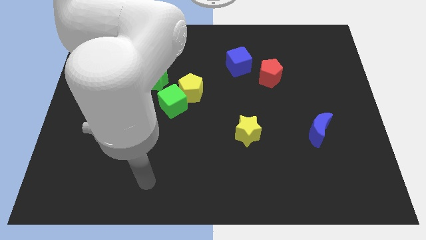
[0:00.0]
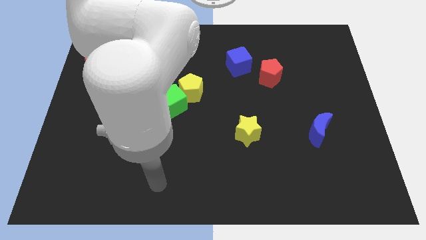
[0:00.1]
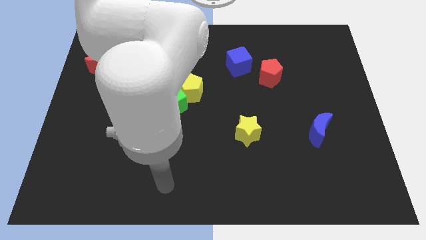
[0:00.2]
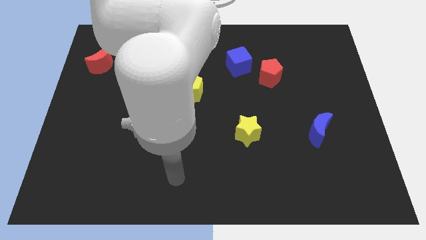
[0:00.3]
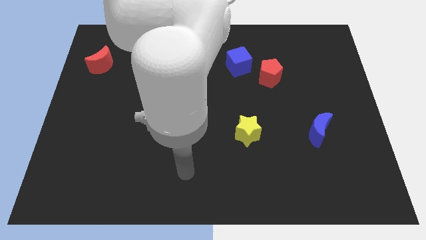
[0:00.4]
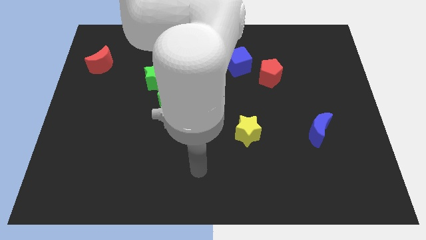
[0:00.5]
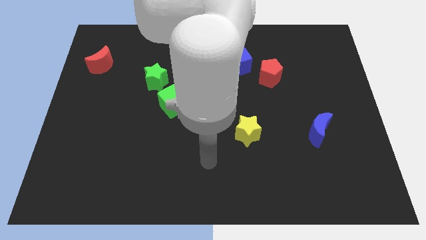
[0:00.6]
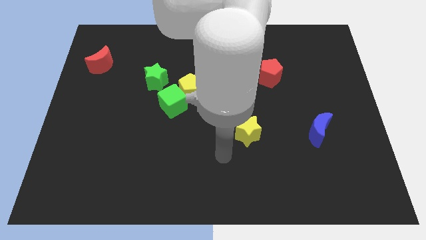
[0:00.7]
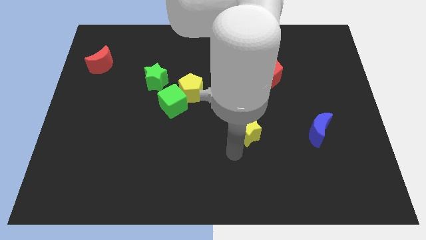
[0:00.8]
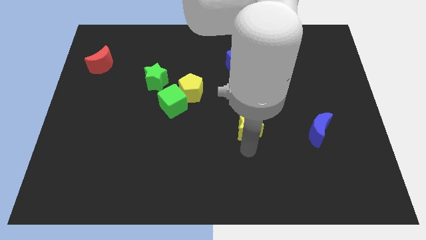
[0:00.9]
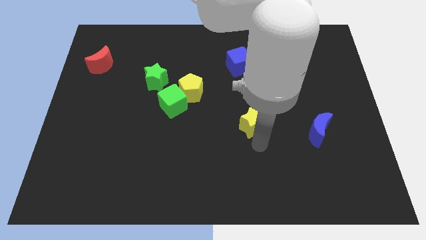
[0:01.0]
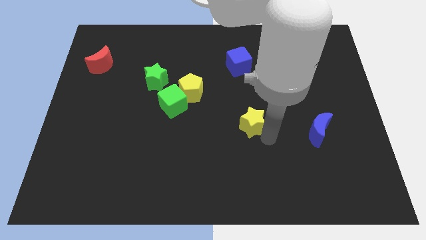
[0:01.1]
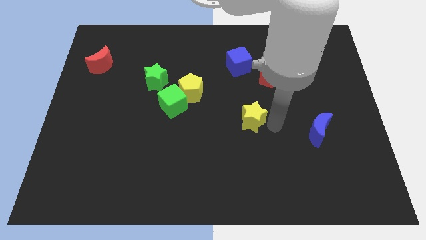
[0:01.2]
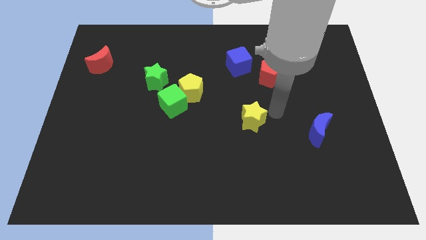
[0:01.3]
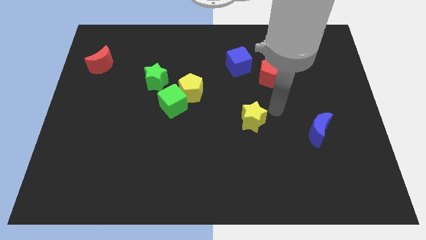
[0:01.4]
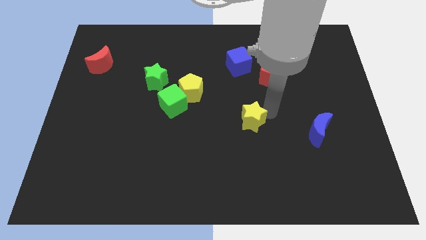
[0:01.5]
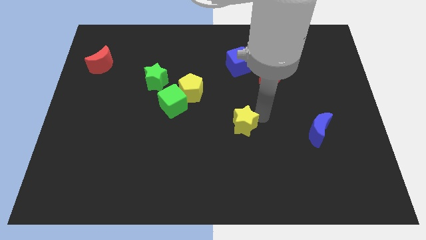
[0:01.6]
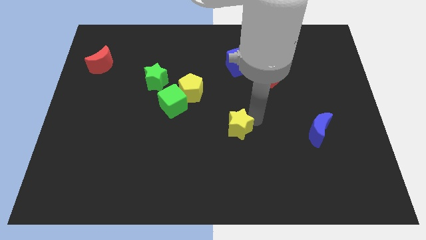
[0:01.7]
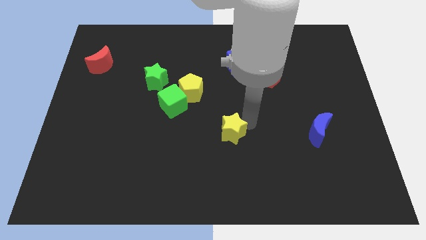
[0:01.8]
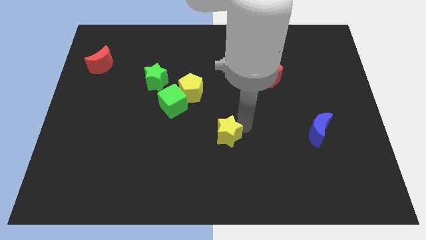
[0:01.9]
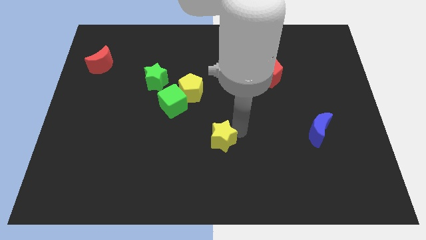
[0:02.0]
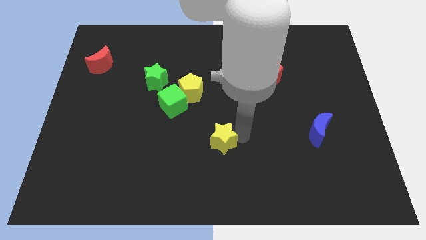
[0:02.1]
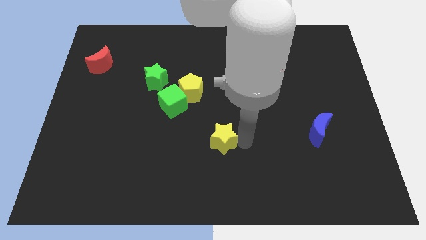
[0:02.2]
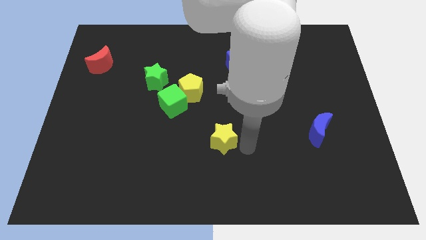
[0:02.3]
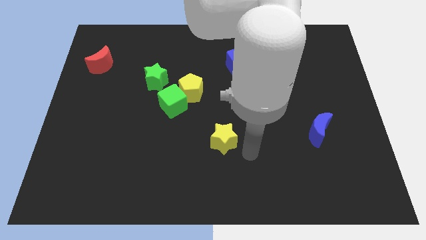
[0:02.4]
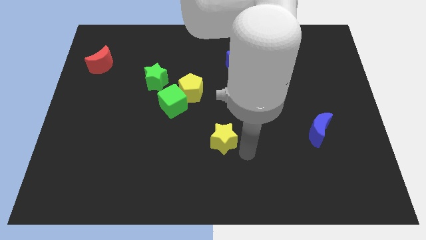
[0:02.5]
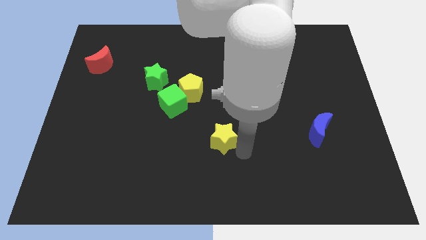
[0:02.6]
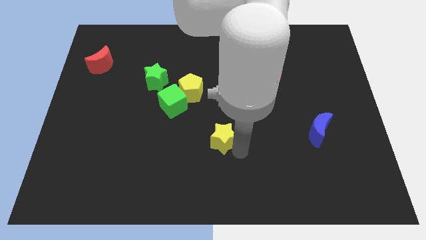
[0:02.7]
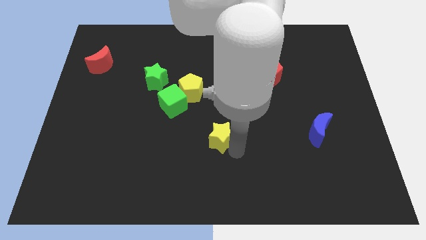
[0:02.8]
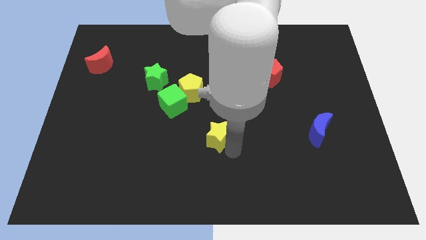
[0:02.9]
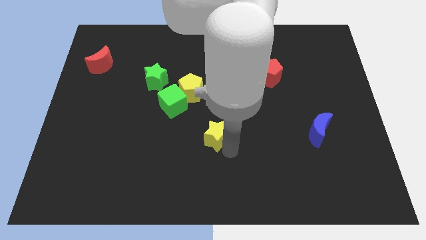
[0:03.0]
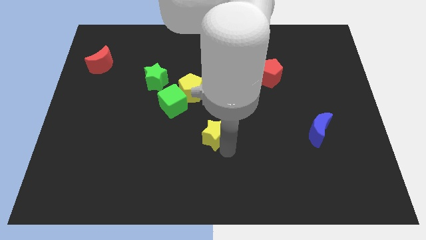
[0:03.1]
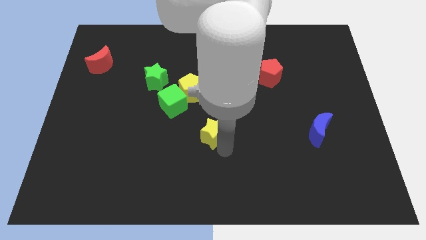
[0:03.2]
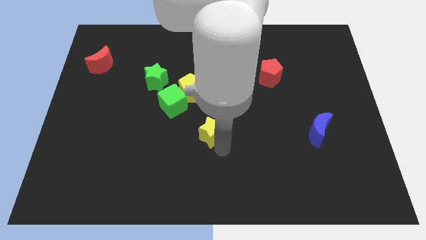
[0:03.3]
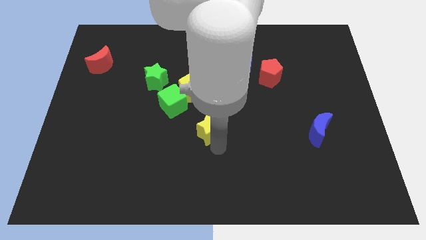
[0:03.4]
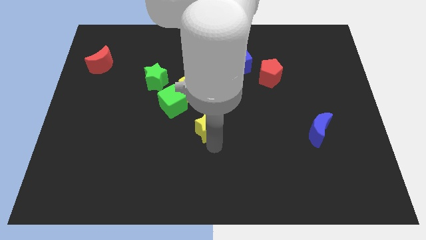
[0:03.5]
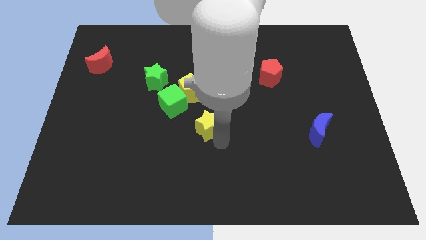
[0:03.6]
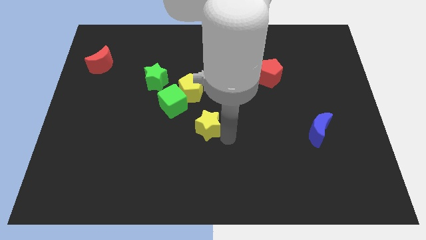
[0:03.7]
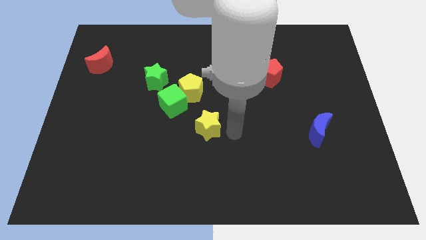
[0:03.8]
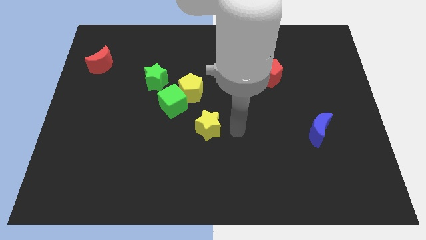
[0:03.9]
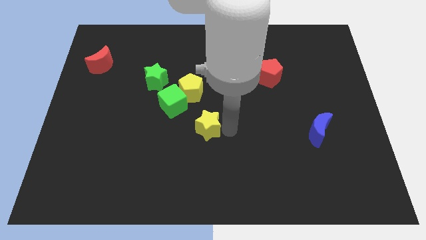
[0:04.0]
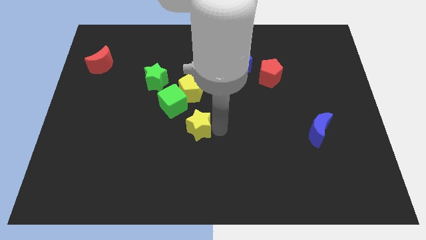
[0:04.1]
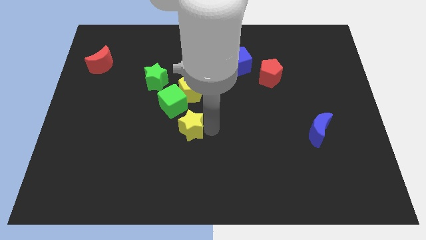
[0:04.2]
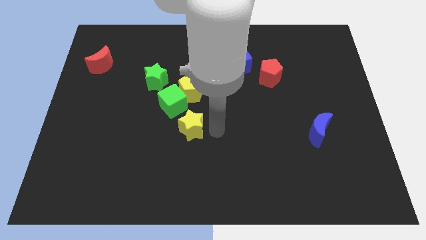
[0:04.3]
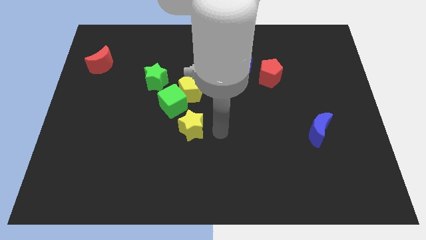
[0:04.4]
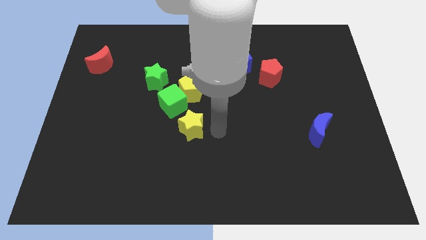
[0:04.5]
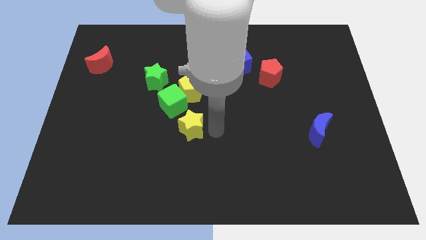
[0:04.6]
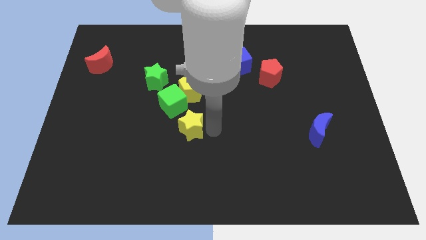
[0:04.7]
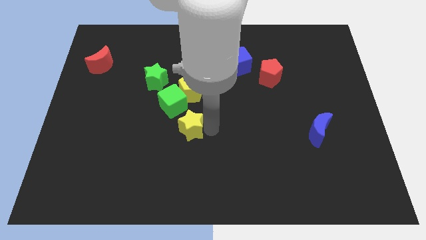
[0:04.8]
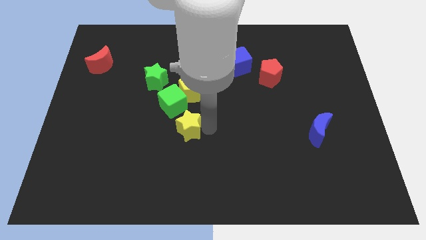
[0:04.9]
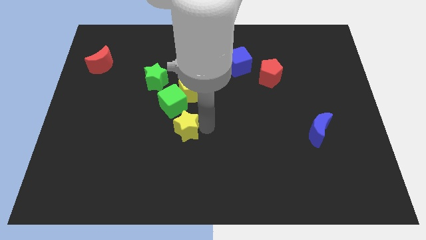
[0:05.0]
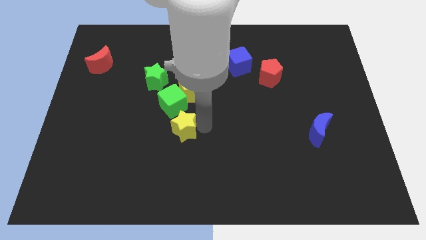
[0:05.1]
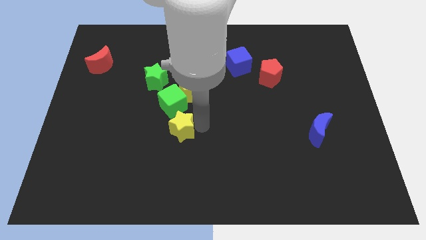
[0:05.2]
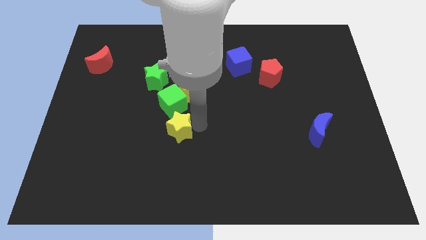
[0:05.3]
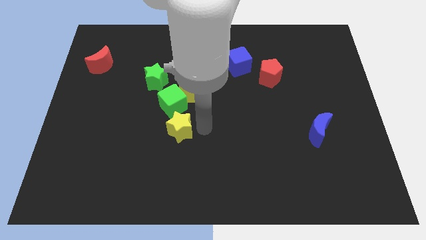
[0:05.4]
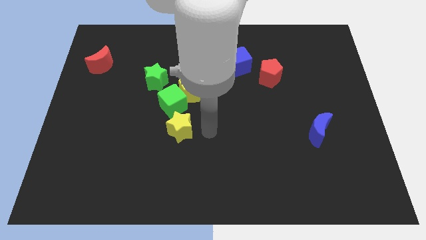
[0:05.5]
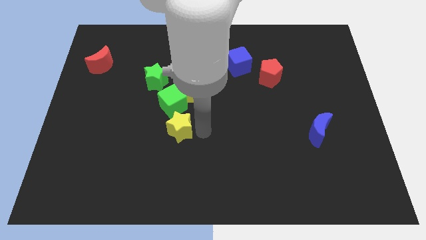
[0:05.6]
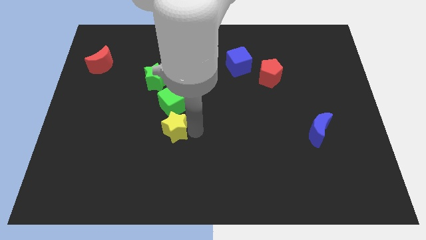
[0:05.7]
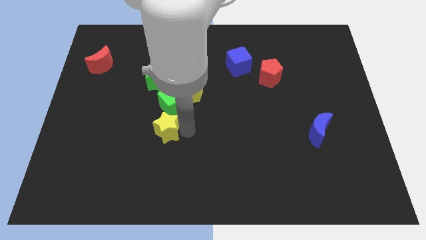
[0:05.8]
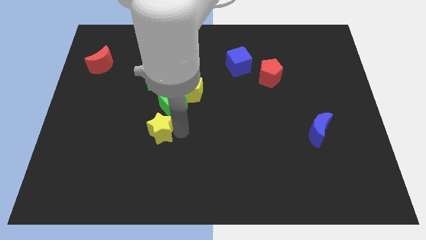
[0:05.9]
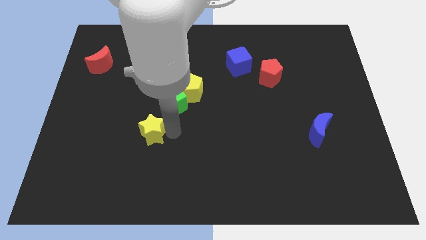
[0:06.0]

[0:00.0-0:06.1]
push the yellow star left

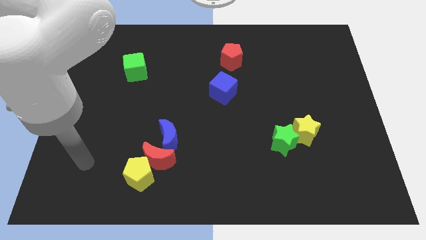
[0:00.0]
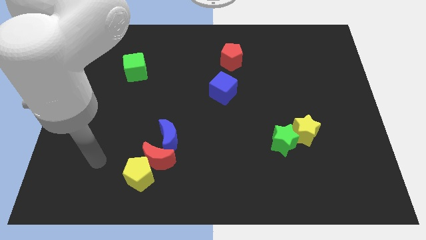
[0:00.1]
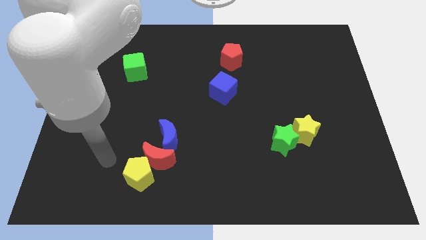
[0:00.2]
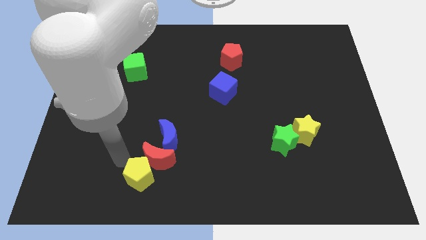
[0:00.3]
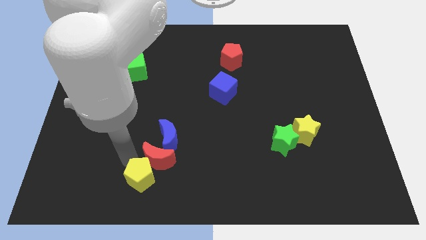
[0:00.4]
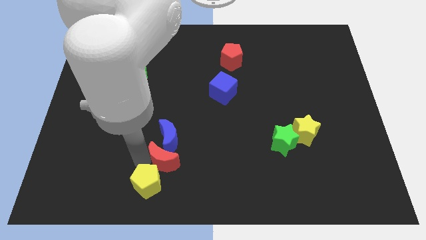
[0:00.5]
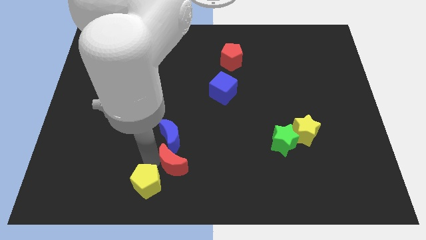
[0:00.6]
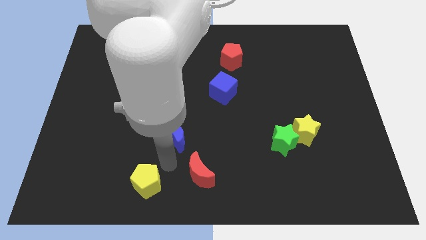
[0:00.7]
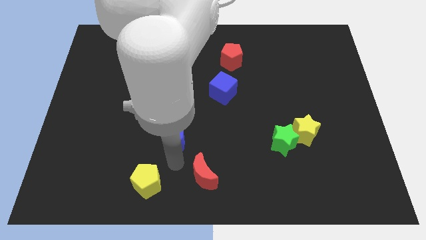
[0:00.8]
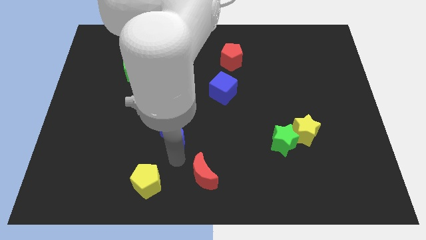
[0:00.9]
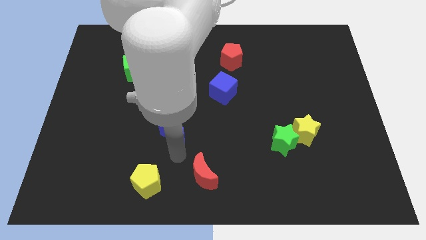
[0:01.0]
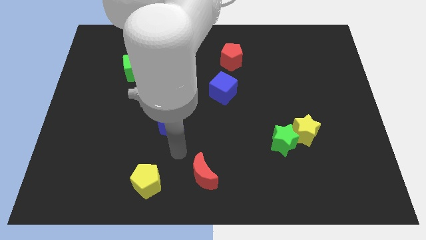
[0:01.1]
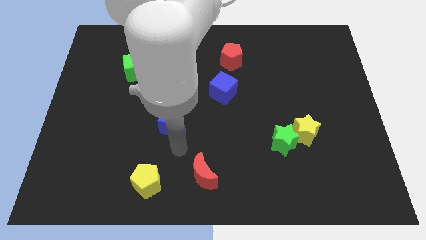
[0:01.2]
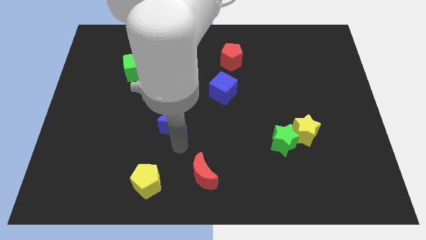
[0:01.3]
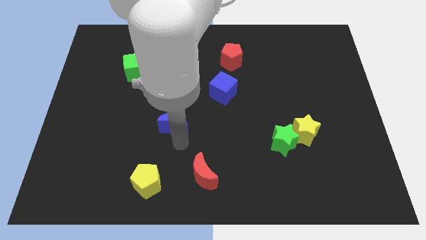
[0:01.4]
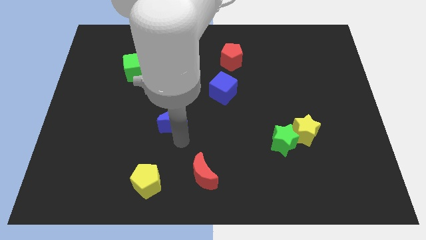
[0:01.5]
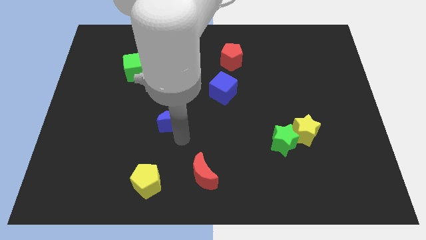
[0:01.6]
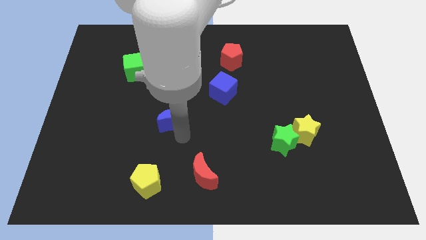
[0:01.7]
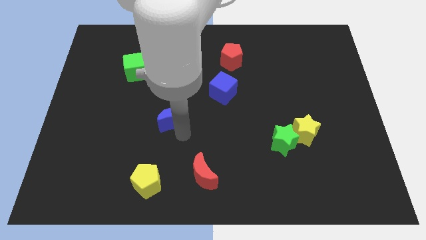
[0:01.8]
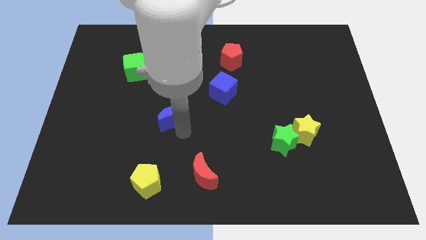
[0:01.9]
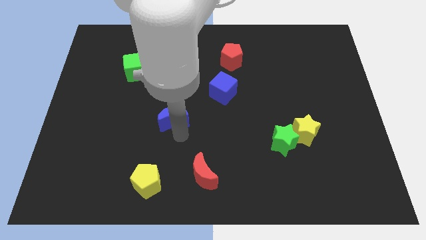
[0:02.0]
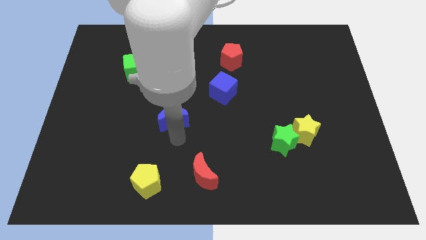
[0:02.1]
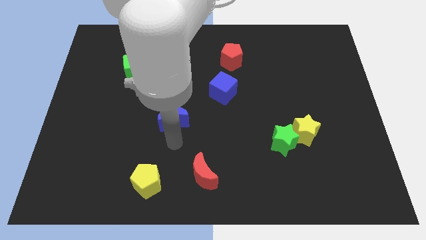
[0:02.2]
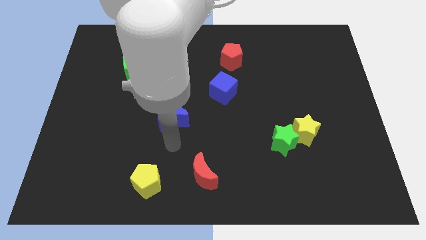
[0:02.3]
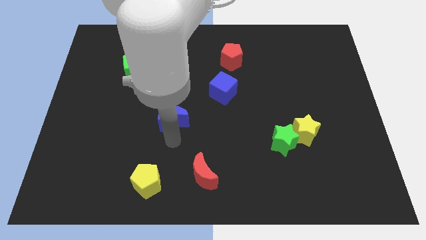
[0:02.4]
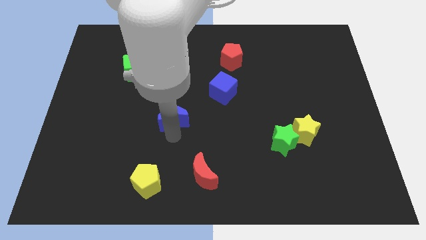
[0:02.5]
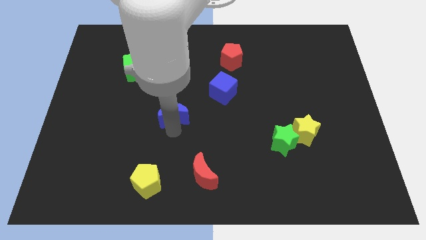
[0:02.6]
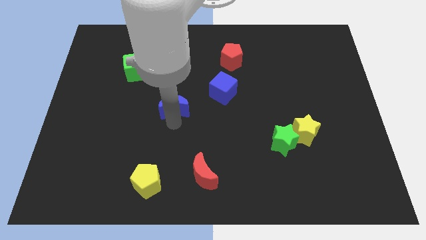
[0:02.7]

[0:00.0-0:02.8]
slide the blue moon upwards somewhat
